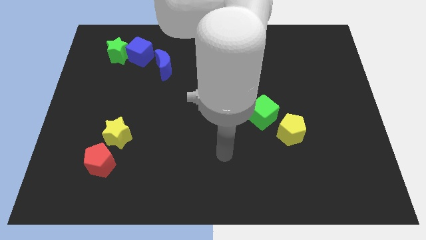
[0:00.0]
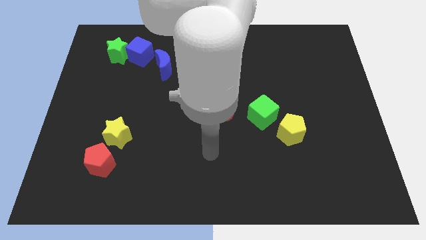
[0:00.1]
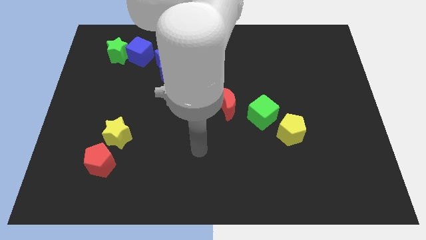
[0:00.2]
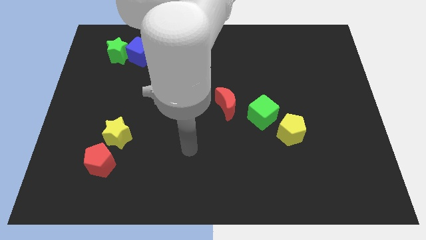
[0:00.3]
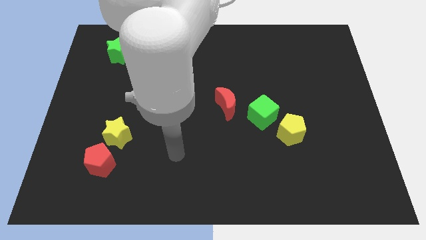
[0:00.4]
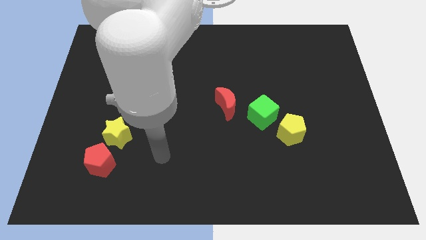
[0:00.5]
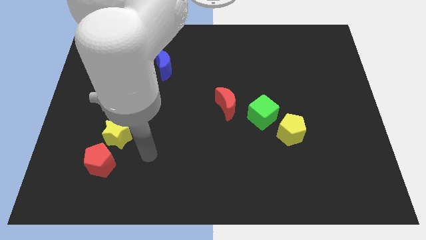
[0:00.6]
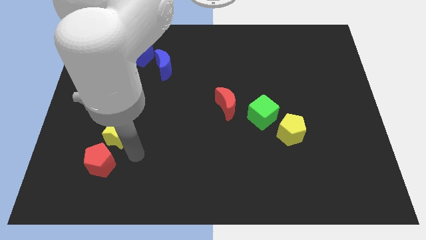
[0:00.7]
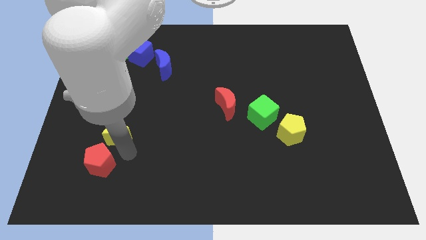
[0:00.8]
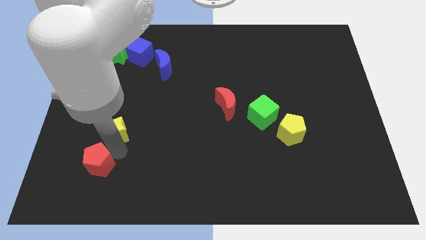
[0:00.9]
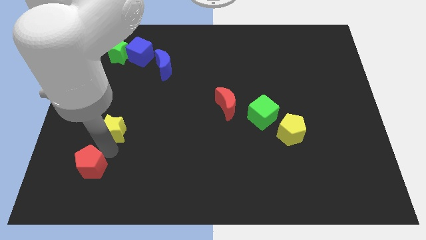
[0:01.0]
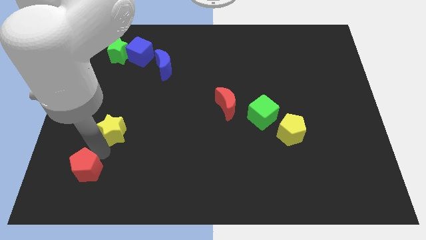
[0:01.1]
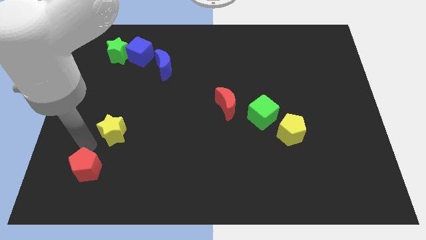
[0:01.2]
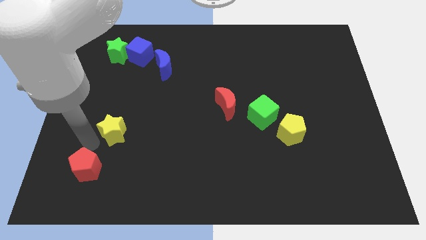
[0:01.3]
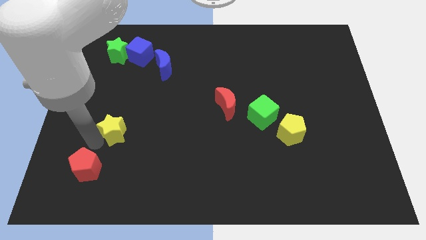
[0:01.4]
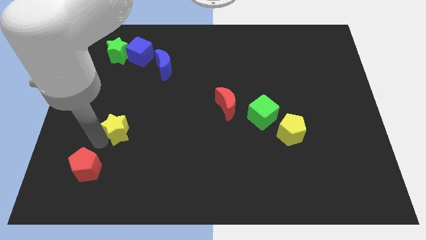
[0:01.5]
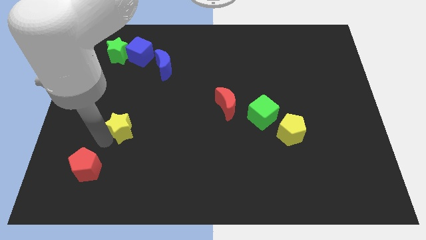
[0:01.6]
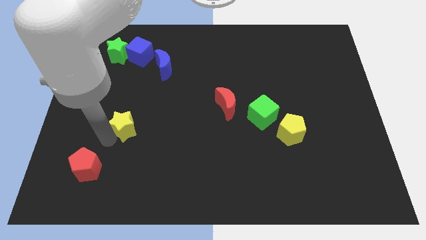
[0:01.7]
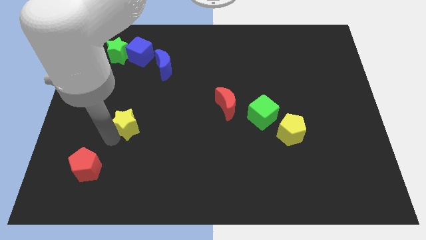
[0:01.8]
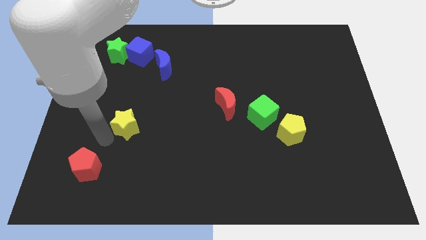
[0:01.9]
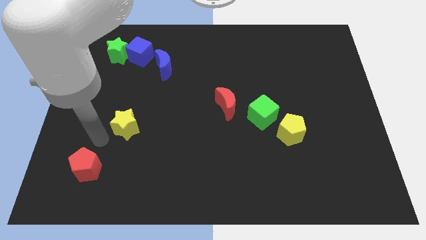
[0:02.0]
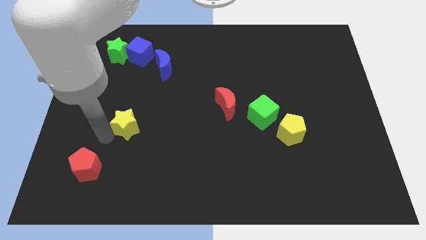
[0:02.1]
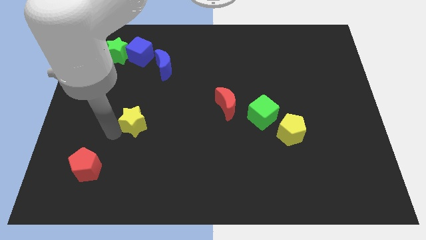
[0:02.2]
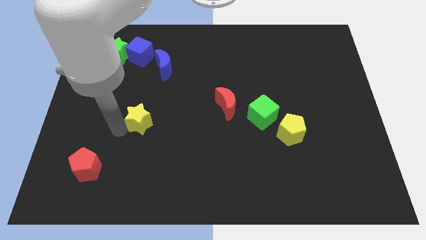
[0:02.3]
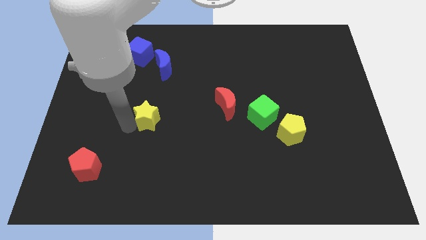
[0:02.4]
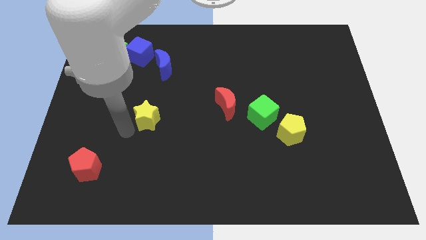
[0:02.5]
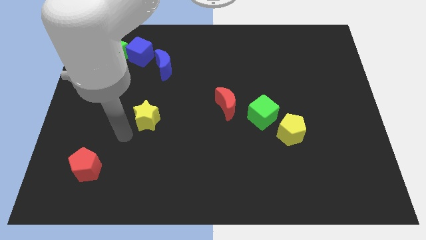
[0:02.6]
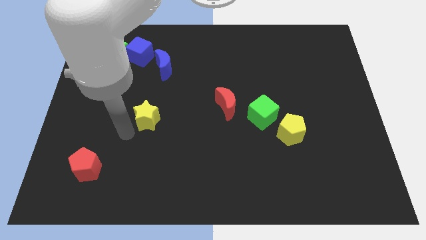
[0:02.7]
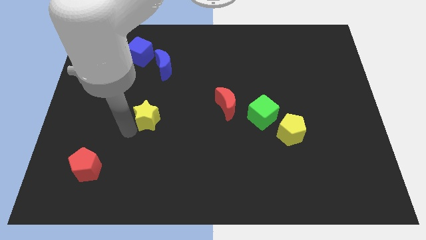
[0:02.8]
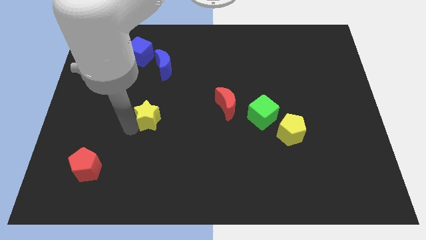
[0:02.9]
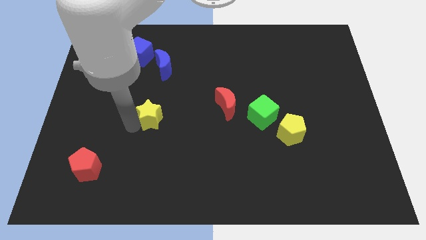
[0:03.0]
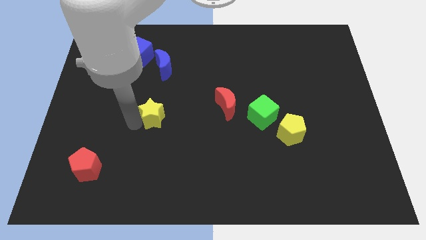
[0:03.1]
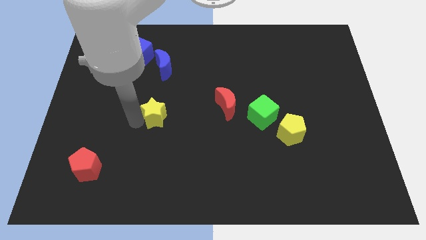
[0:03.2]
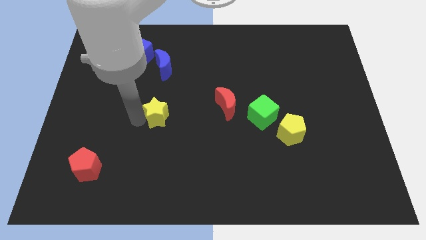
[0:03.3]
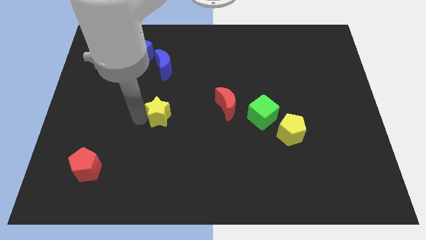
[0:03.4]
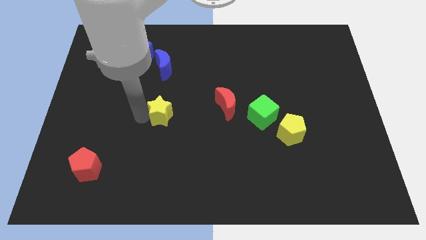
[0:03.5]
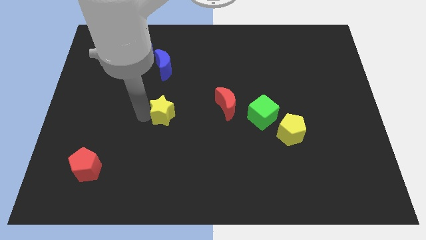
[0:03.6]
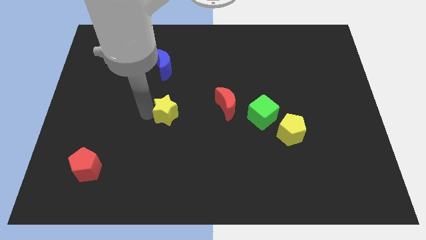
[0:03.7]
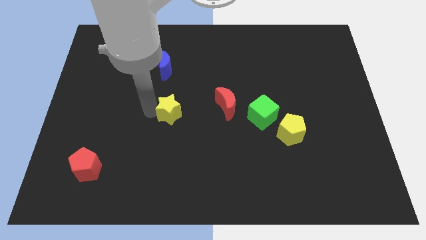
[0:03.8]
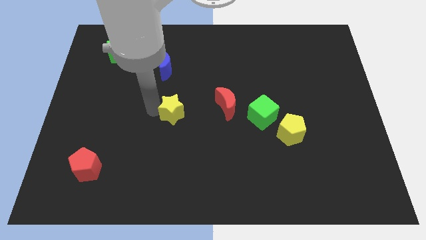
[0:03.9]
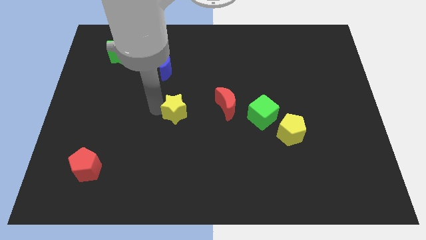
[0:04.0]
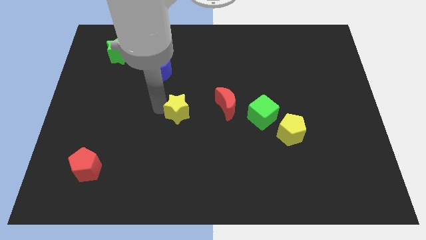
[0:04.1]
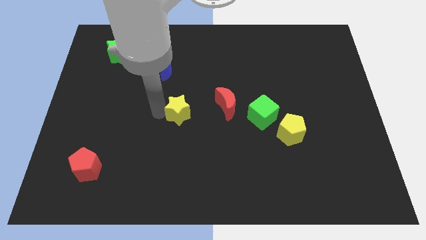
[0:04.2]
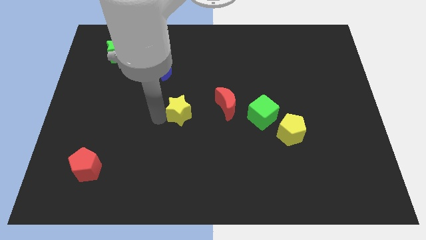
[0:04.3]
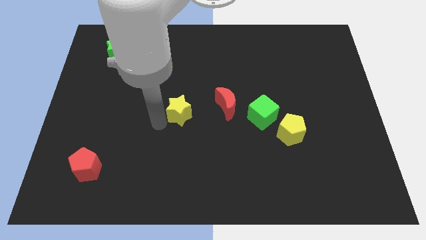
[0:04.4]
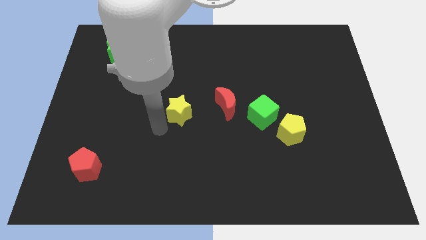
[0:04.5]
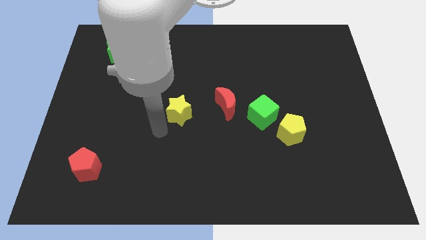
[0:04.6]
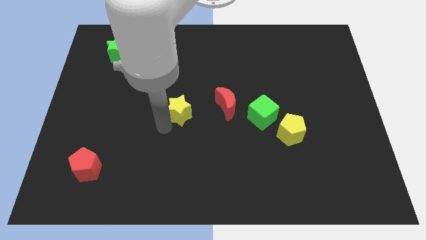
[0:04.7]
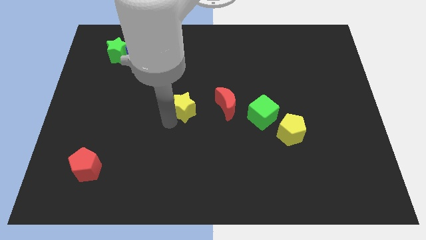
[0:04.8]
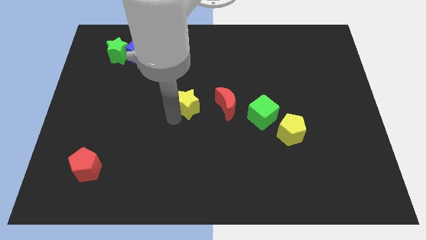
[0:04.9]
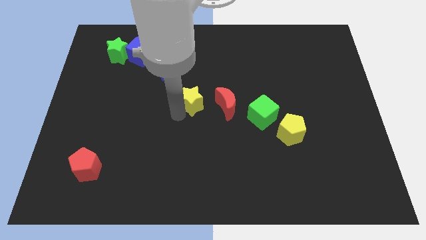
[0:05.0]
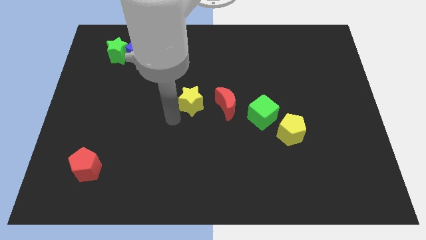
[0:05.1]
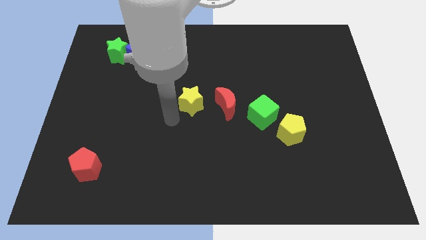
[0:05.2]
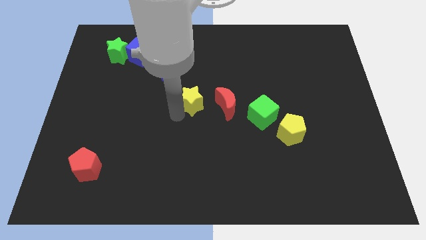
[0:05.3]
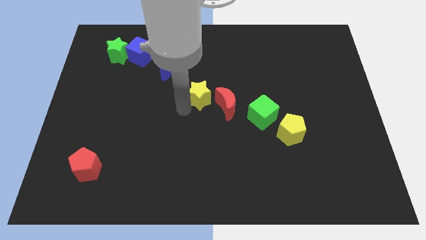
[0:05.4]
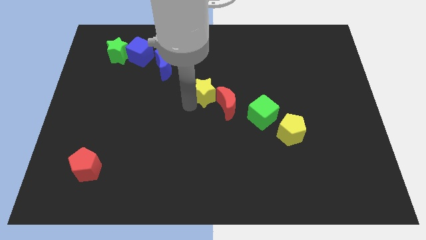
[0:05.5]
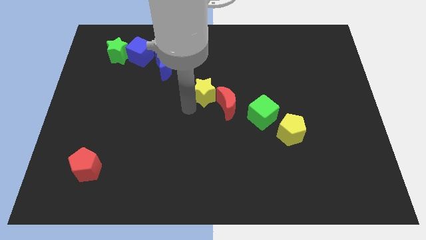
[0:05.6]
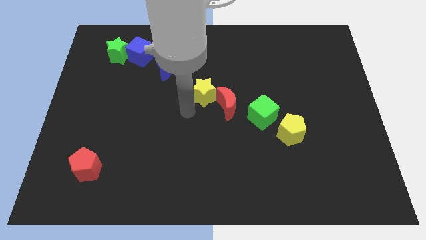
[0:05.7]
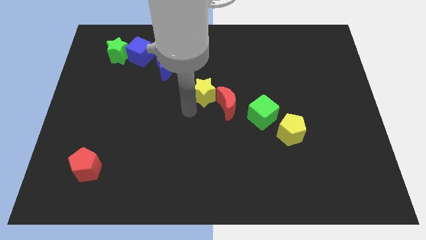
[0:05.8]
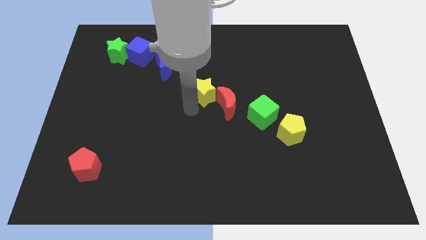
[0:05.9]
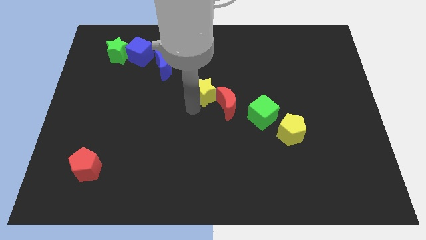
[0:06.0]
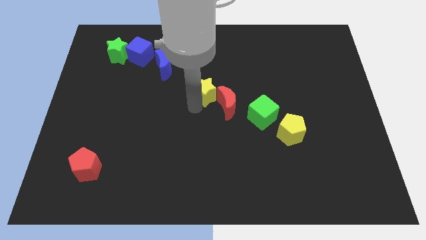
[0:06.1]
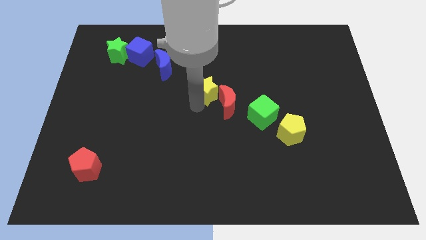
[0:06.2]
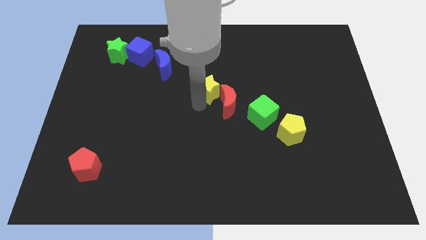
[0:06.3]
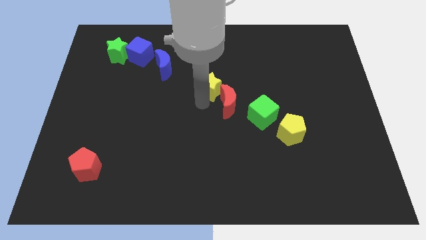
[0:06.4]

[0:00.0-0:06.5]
put the yellow star above the red moon

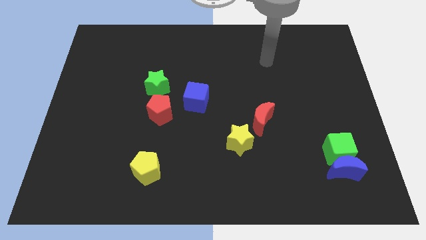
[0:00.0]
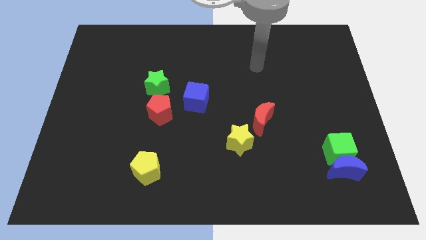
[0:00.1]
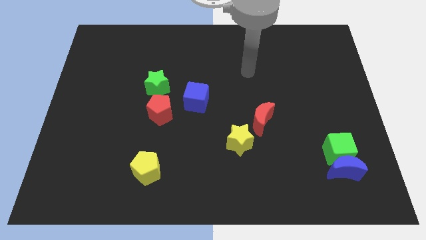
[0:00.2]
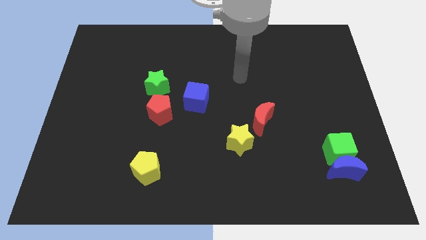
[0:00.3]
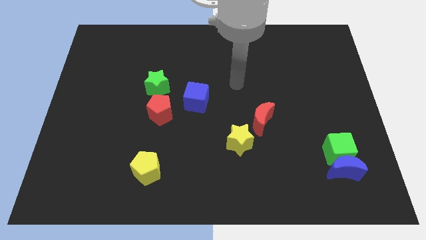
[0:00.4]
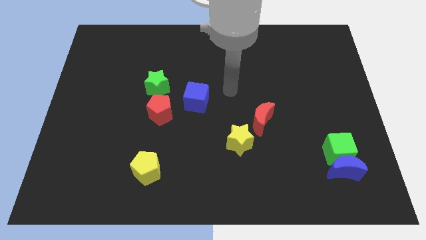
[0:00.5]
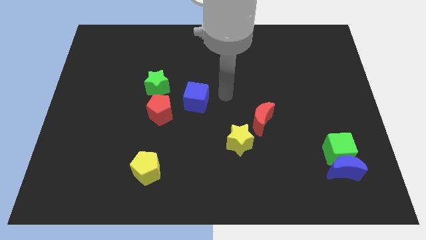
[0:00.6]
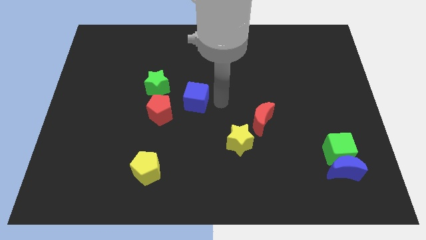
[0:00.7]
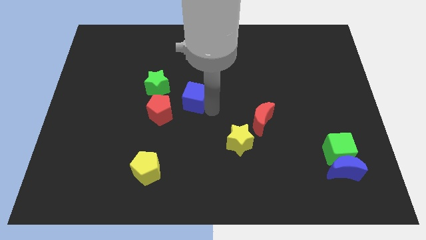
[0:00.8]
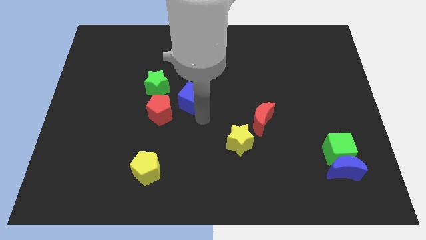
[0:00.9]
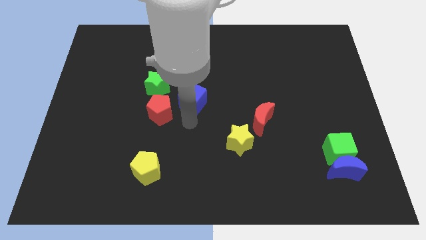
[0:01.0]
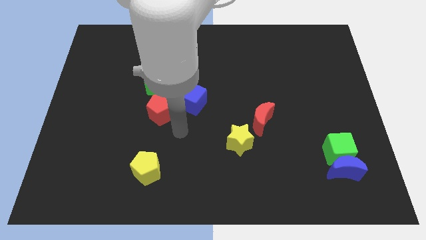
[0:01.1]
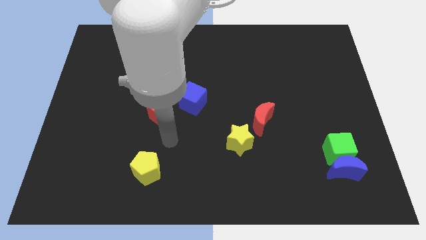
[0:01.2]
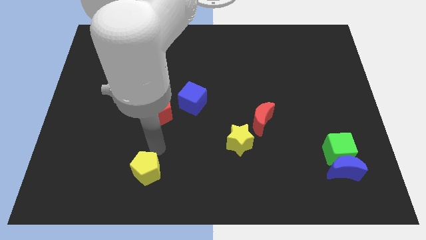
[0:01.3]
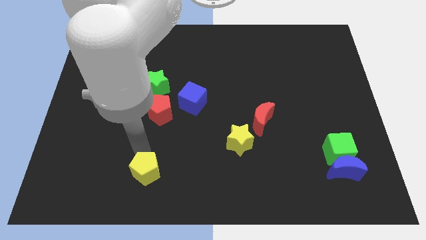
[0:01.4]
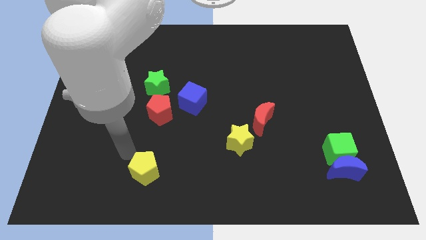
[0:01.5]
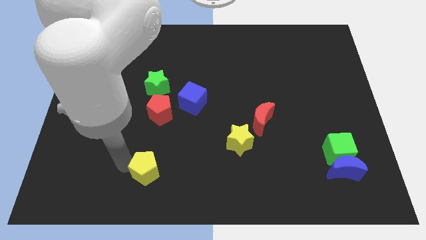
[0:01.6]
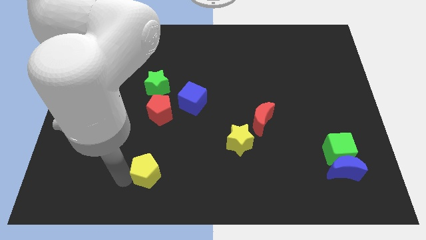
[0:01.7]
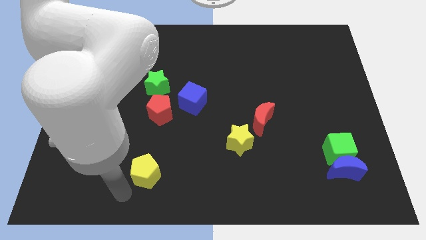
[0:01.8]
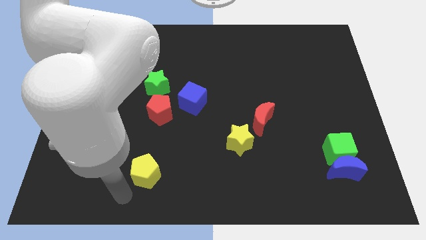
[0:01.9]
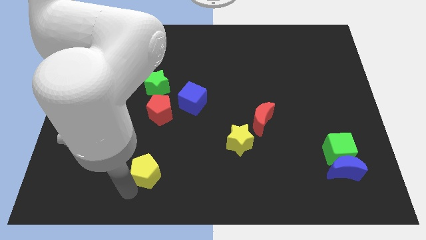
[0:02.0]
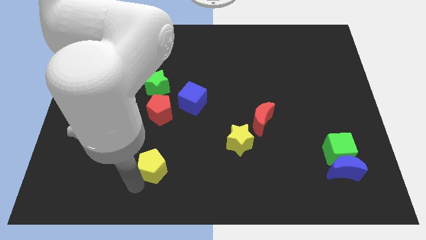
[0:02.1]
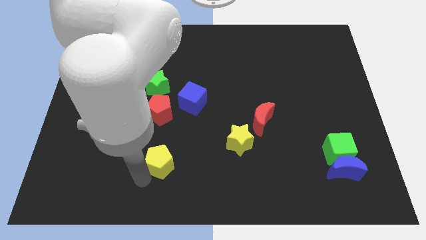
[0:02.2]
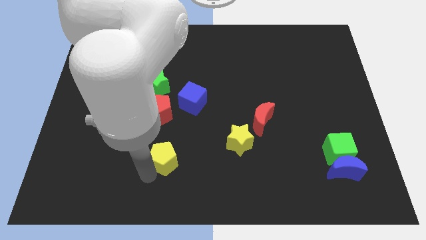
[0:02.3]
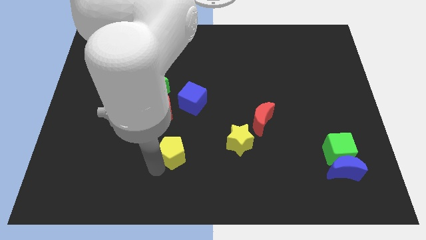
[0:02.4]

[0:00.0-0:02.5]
put the yellow pentagon to the bottom side of the blue cube
